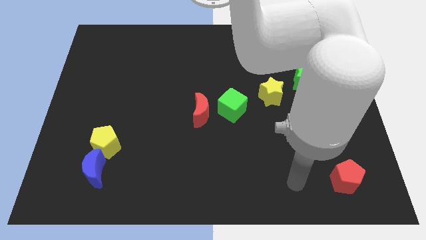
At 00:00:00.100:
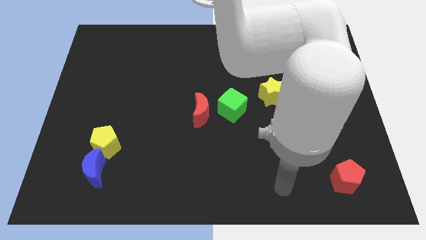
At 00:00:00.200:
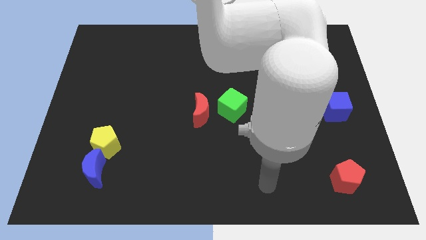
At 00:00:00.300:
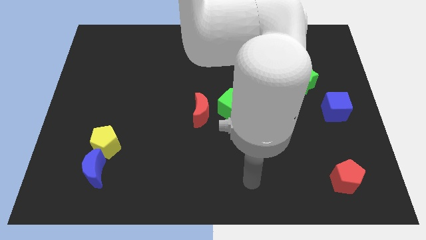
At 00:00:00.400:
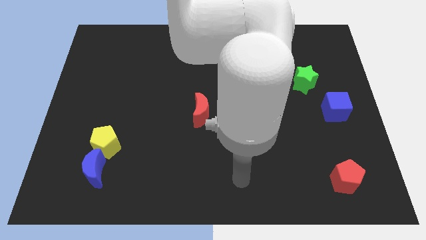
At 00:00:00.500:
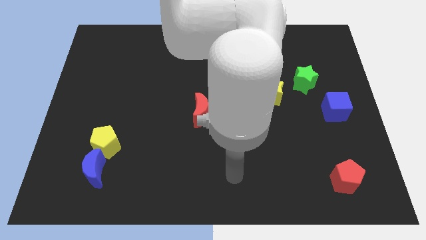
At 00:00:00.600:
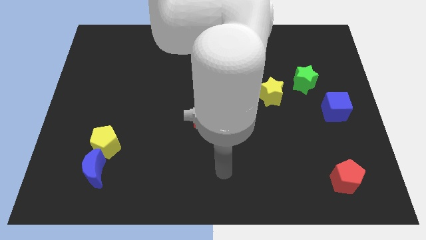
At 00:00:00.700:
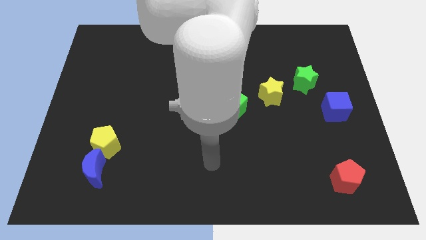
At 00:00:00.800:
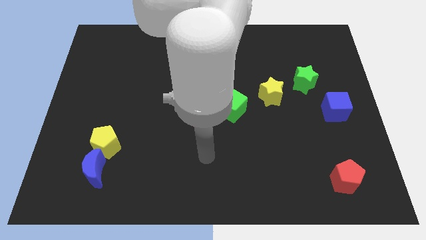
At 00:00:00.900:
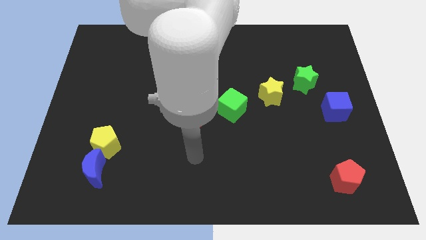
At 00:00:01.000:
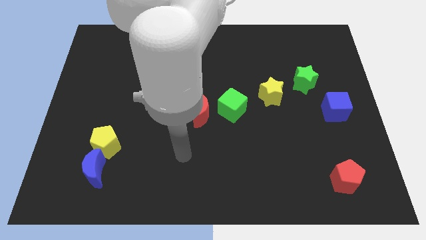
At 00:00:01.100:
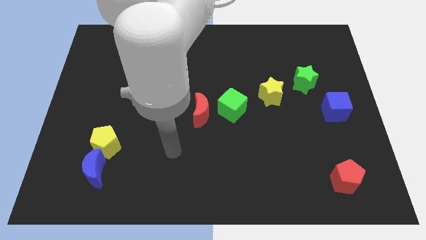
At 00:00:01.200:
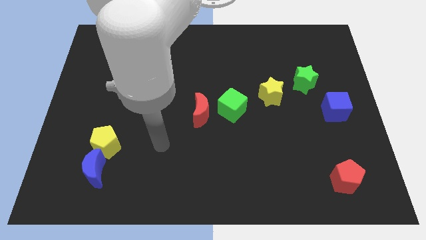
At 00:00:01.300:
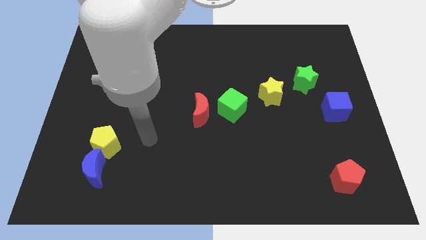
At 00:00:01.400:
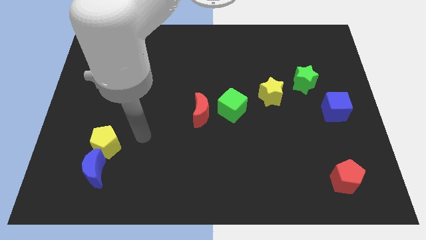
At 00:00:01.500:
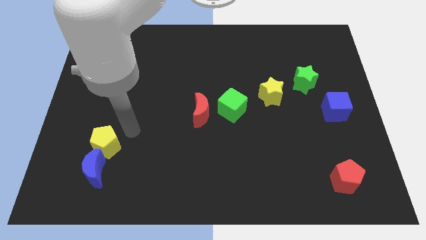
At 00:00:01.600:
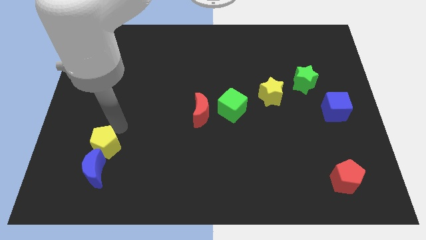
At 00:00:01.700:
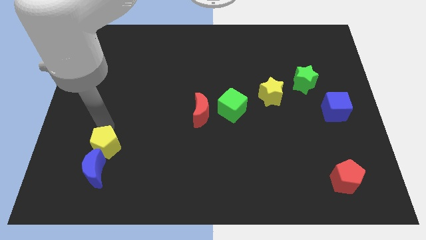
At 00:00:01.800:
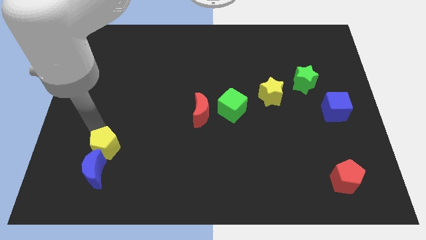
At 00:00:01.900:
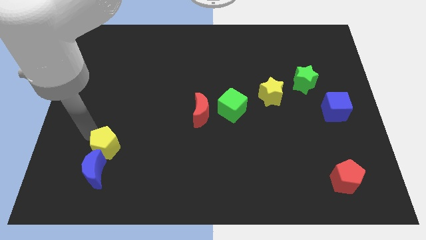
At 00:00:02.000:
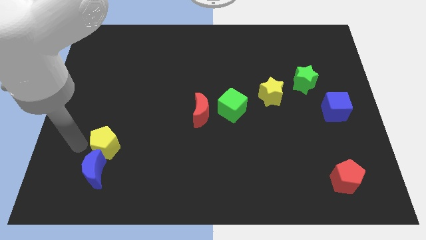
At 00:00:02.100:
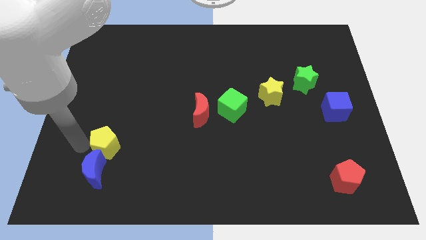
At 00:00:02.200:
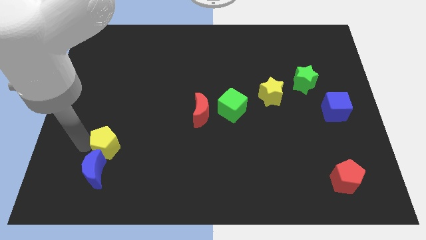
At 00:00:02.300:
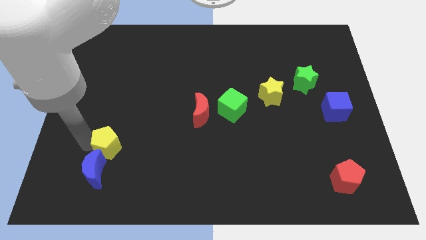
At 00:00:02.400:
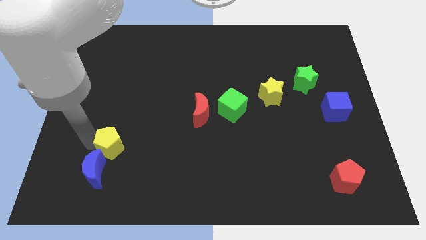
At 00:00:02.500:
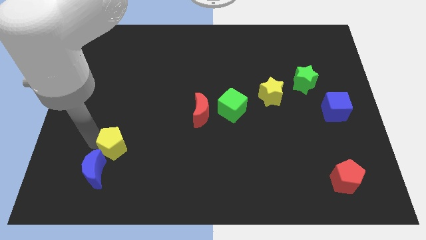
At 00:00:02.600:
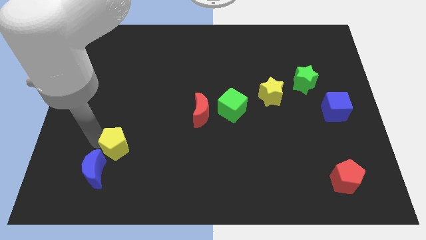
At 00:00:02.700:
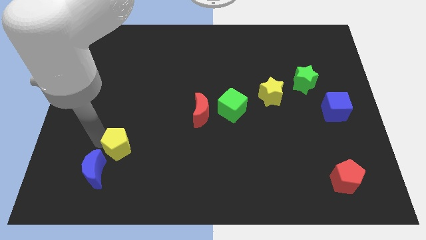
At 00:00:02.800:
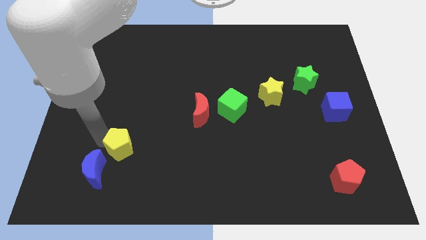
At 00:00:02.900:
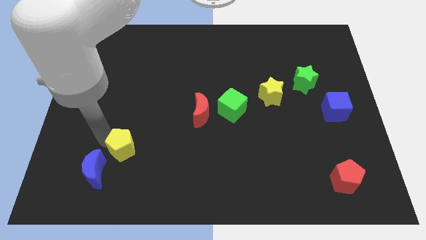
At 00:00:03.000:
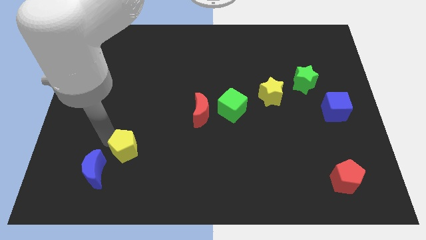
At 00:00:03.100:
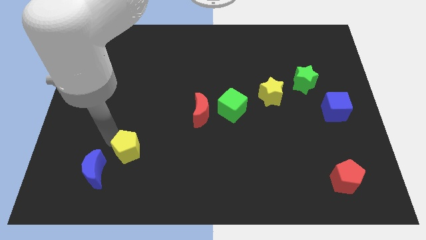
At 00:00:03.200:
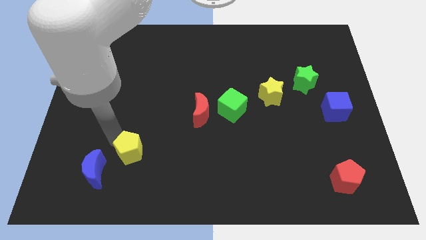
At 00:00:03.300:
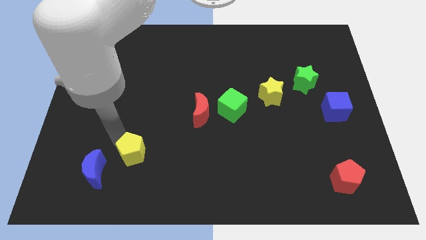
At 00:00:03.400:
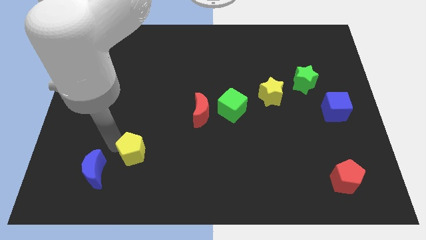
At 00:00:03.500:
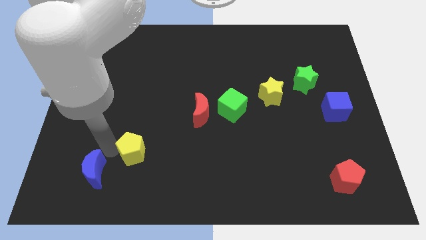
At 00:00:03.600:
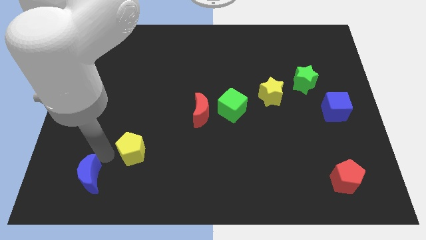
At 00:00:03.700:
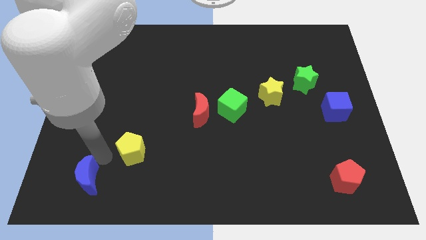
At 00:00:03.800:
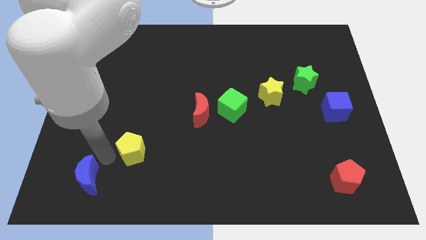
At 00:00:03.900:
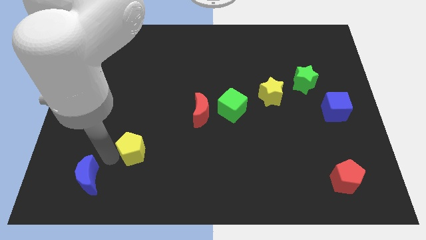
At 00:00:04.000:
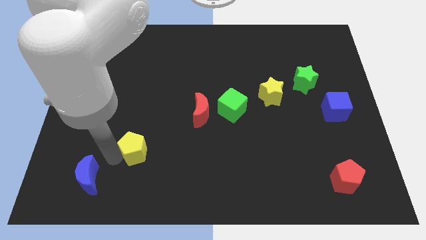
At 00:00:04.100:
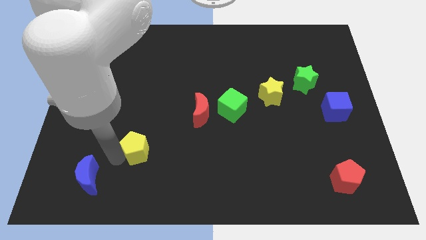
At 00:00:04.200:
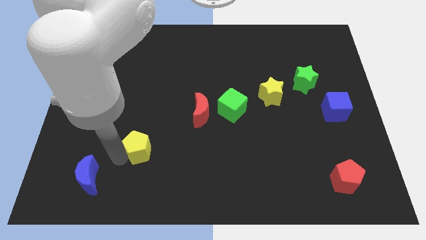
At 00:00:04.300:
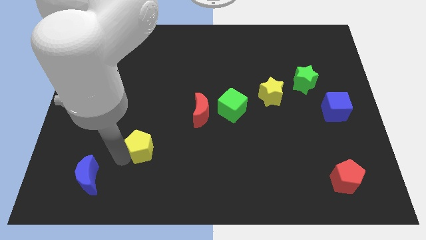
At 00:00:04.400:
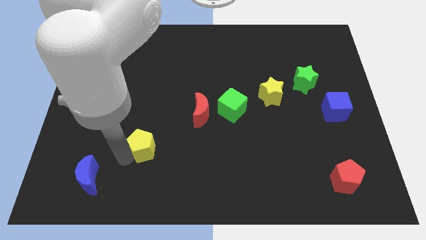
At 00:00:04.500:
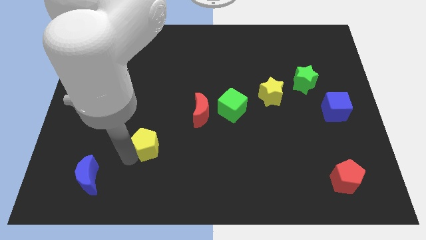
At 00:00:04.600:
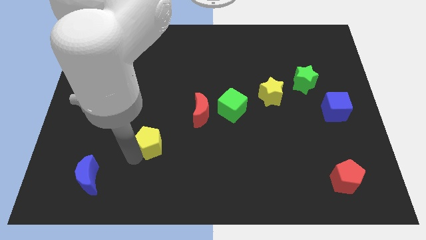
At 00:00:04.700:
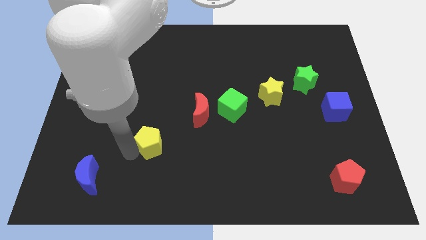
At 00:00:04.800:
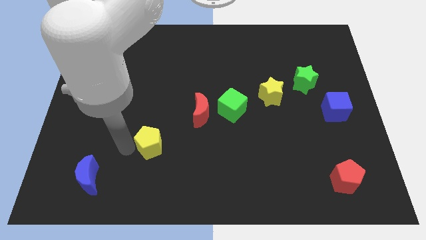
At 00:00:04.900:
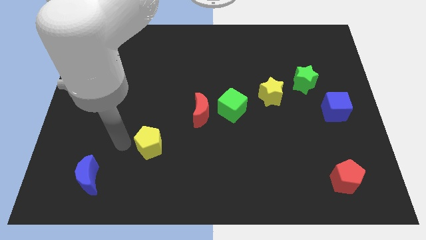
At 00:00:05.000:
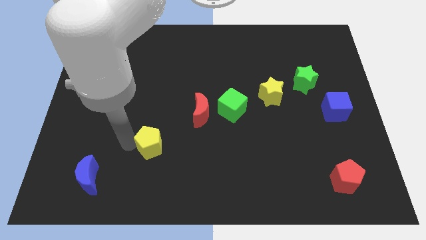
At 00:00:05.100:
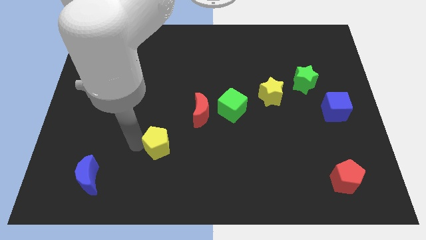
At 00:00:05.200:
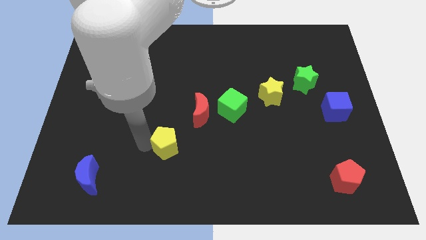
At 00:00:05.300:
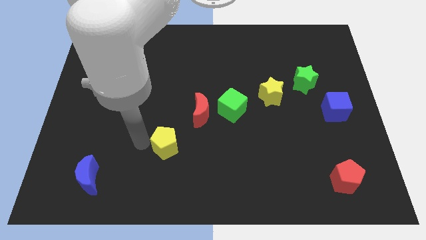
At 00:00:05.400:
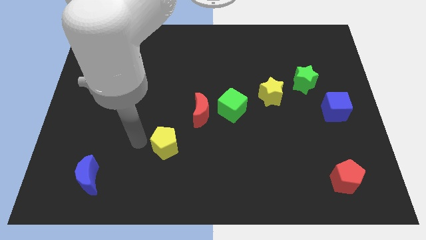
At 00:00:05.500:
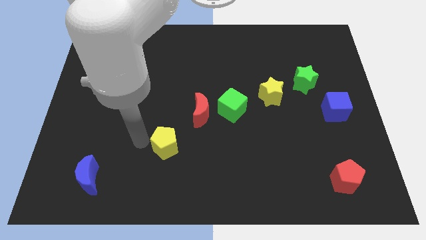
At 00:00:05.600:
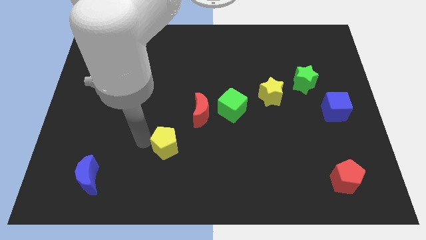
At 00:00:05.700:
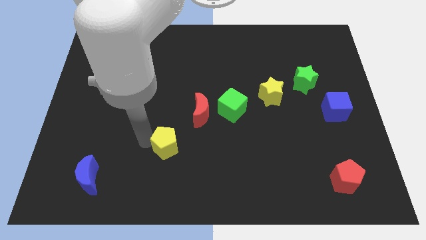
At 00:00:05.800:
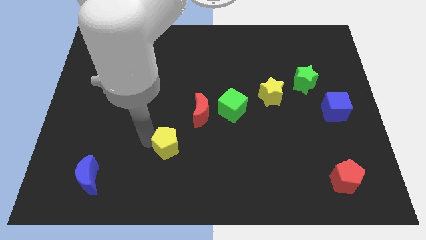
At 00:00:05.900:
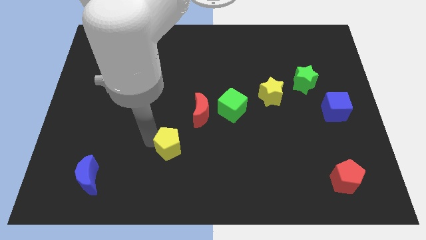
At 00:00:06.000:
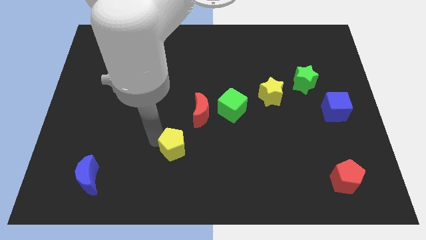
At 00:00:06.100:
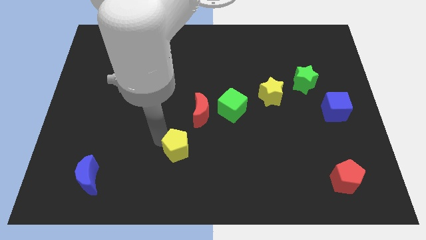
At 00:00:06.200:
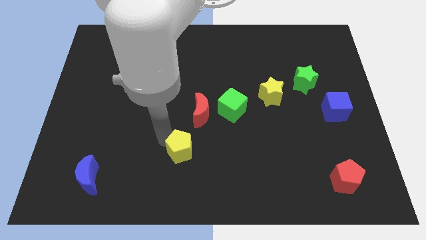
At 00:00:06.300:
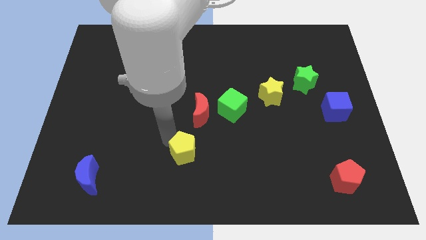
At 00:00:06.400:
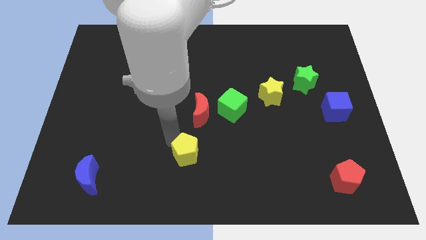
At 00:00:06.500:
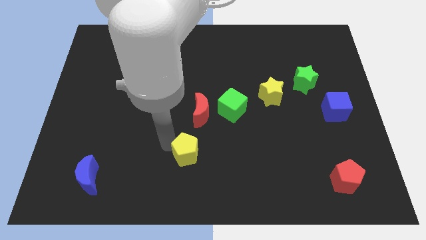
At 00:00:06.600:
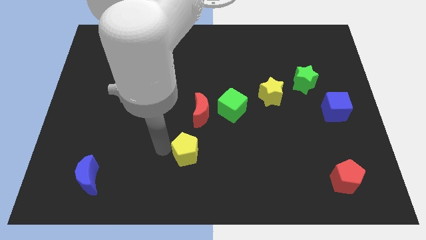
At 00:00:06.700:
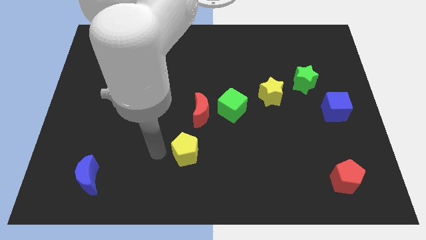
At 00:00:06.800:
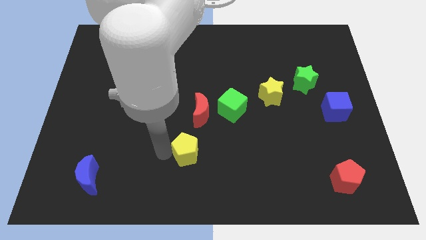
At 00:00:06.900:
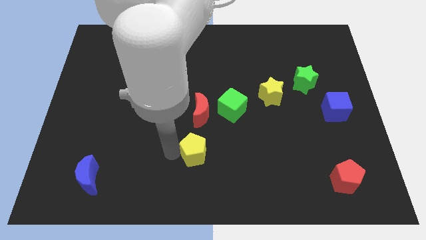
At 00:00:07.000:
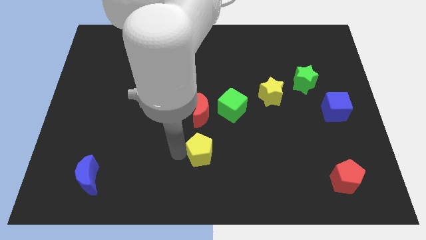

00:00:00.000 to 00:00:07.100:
move the yellow pentagon to the right

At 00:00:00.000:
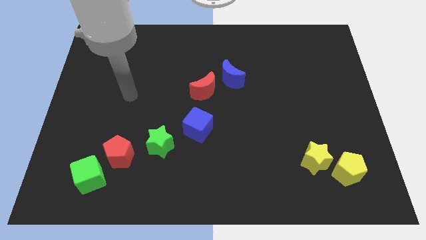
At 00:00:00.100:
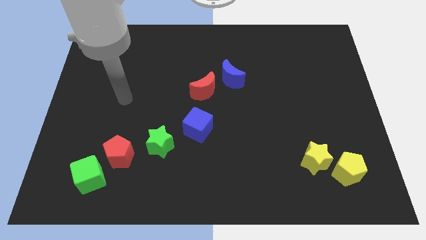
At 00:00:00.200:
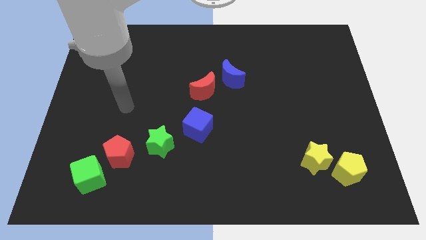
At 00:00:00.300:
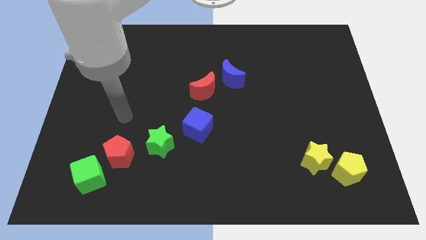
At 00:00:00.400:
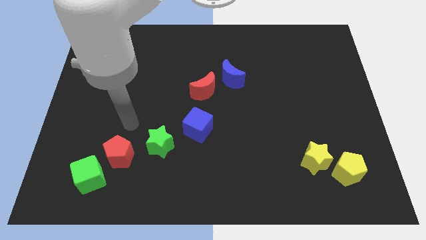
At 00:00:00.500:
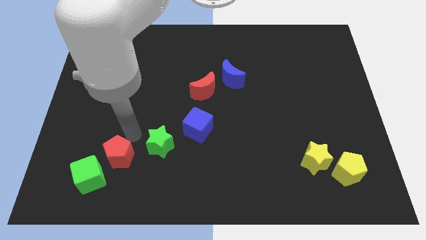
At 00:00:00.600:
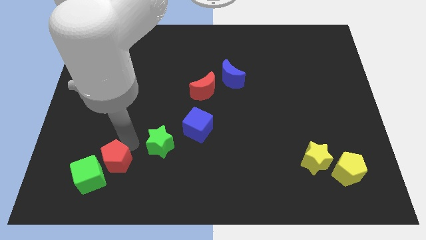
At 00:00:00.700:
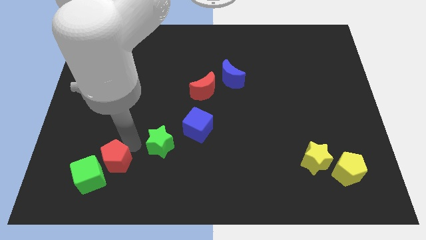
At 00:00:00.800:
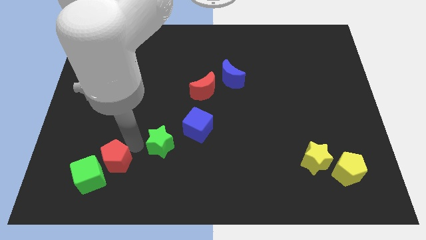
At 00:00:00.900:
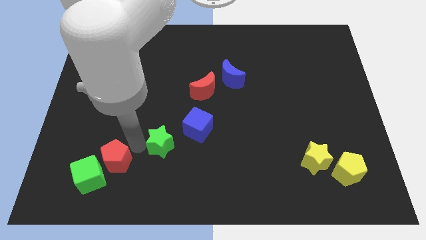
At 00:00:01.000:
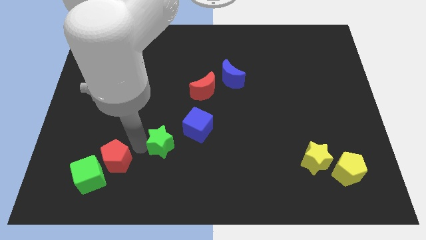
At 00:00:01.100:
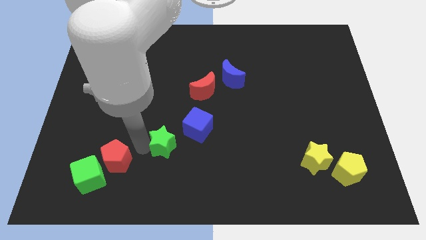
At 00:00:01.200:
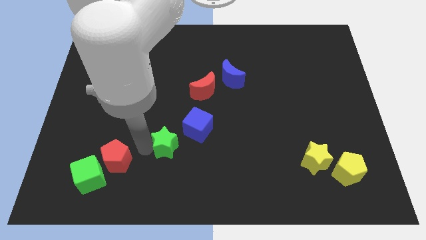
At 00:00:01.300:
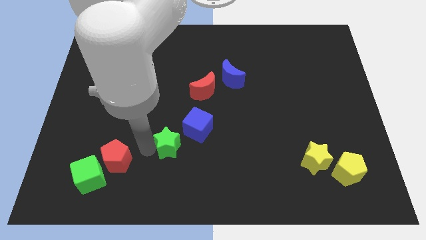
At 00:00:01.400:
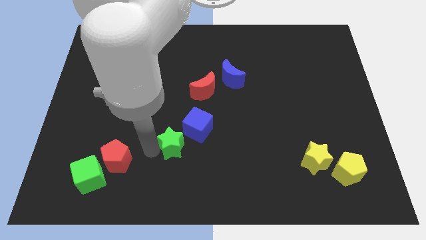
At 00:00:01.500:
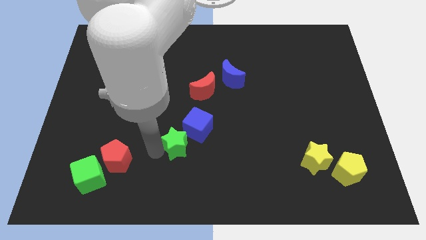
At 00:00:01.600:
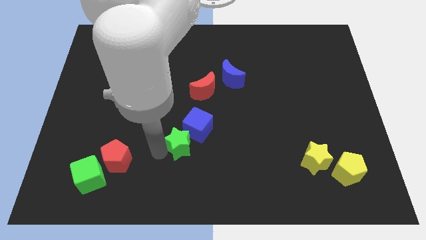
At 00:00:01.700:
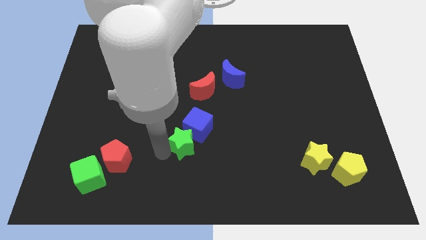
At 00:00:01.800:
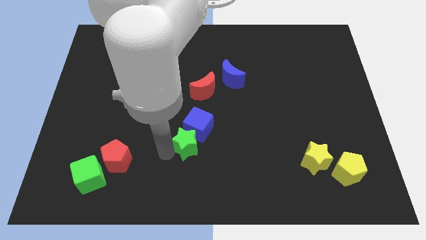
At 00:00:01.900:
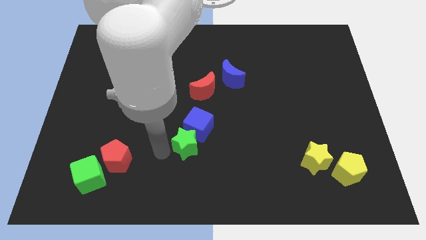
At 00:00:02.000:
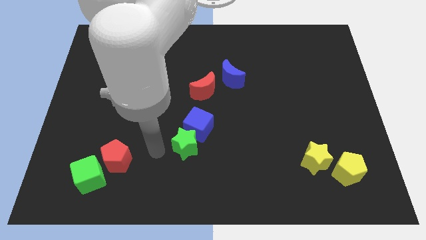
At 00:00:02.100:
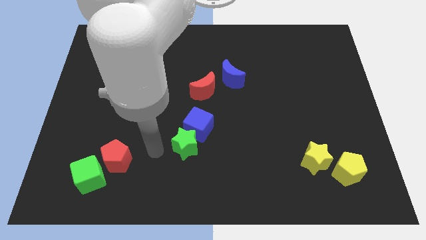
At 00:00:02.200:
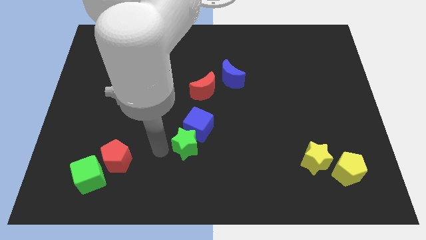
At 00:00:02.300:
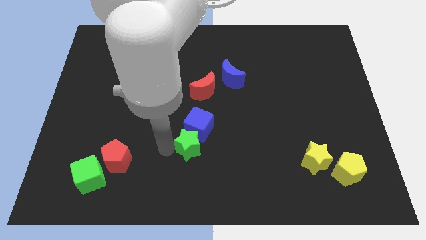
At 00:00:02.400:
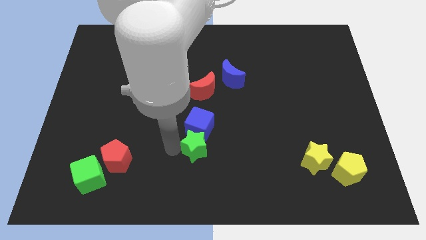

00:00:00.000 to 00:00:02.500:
move the green star slightly right
